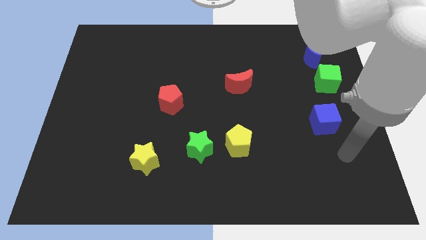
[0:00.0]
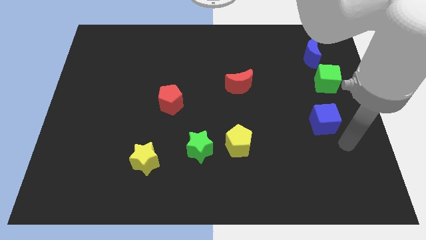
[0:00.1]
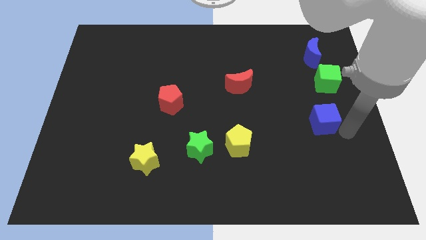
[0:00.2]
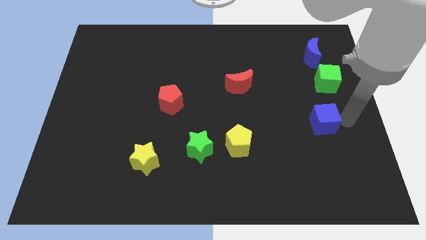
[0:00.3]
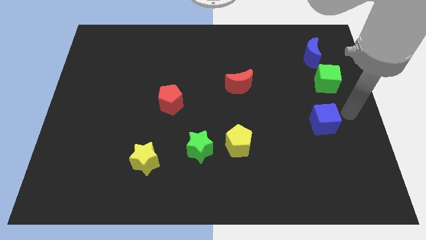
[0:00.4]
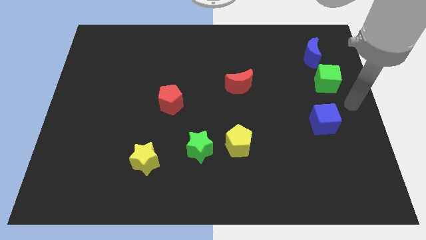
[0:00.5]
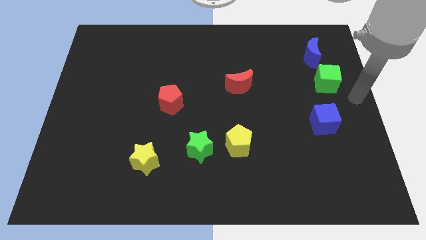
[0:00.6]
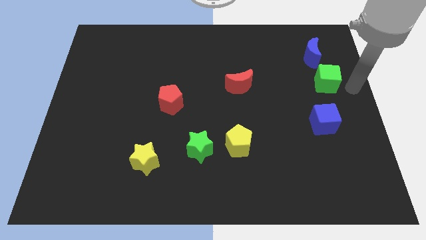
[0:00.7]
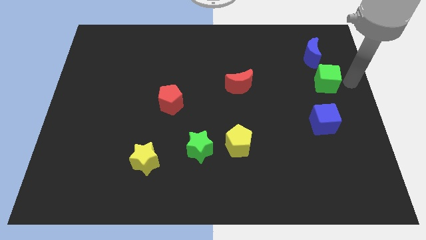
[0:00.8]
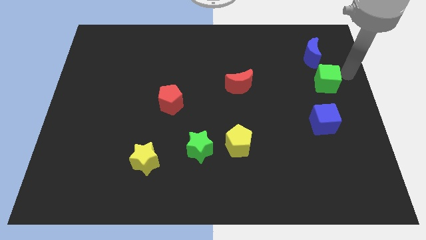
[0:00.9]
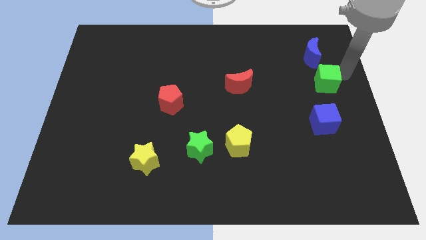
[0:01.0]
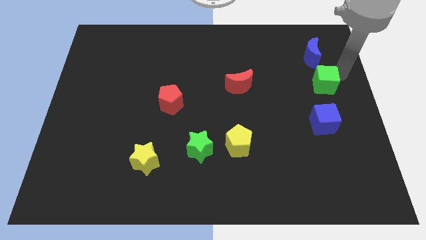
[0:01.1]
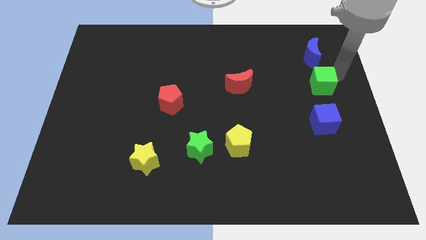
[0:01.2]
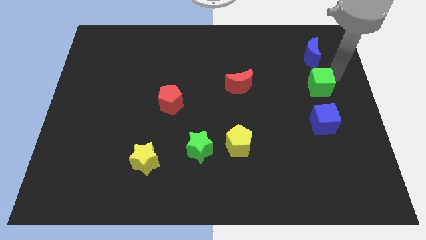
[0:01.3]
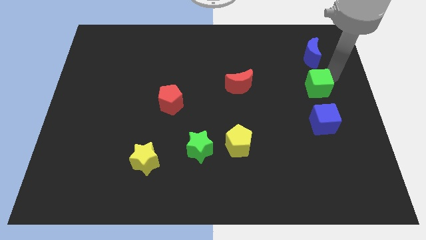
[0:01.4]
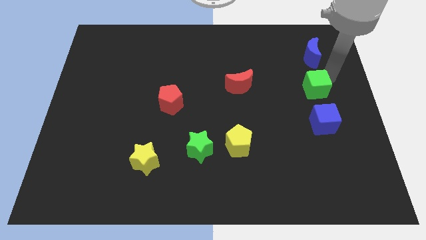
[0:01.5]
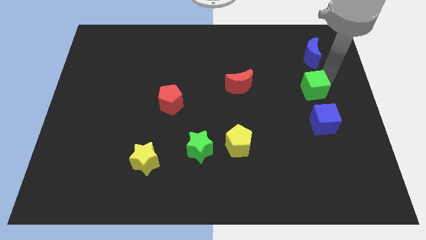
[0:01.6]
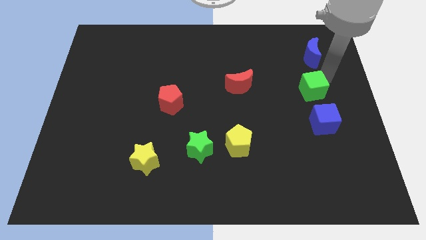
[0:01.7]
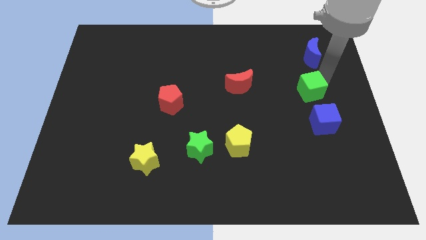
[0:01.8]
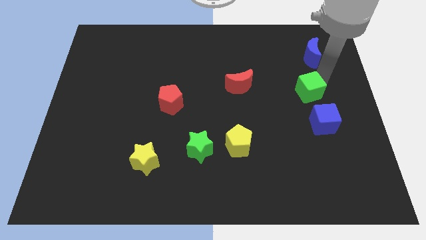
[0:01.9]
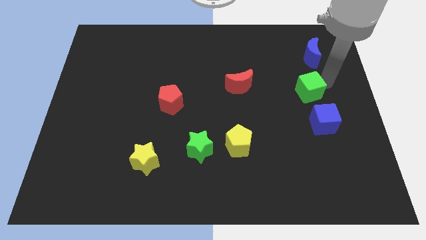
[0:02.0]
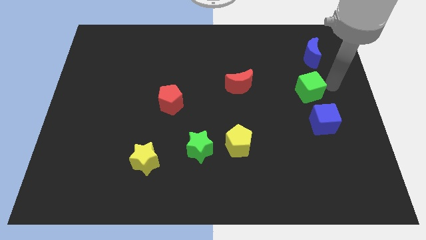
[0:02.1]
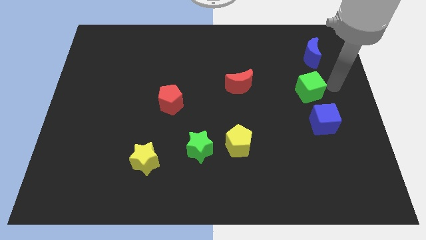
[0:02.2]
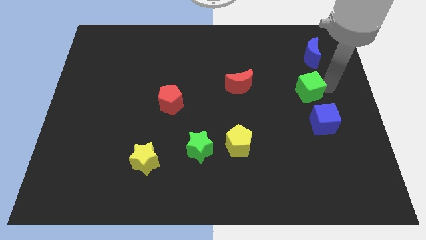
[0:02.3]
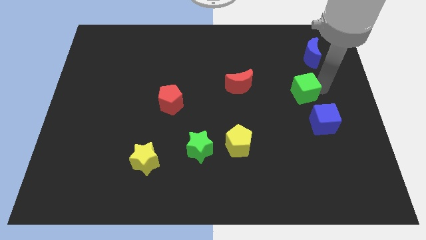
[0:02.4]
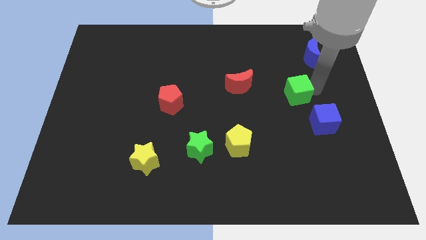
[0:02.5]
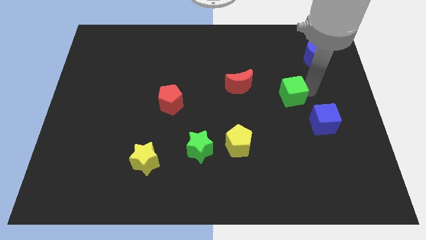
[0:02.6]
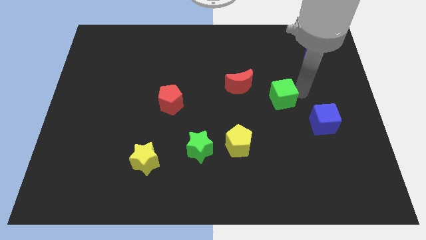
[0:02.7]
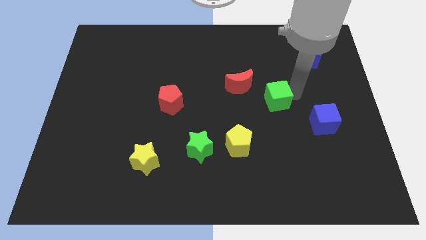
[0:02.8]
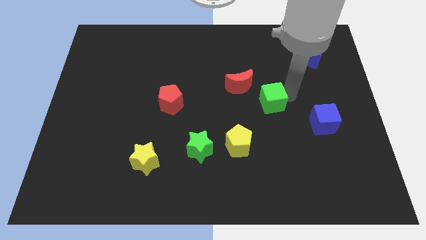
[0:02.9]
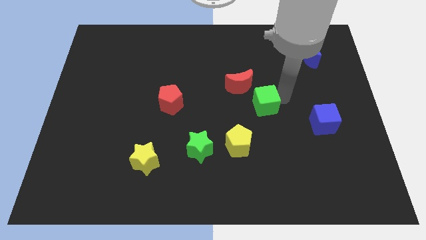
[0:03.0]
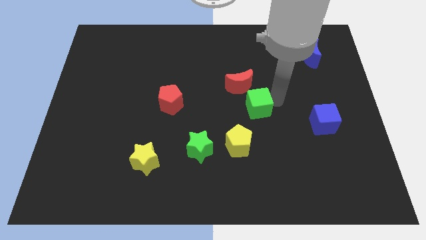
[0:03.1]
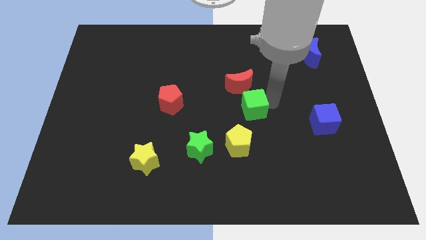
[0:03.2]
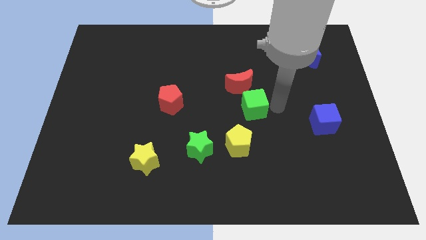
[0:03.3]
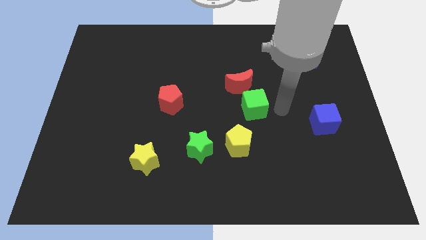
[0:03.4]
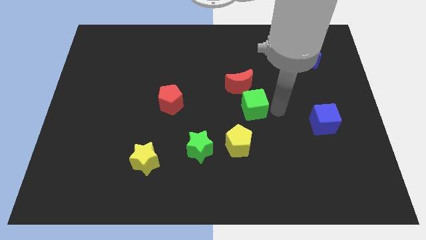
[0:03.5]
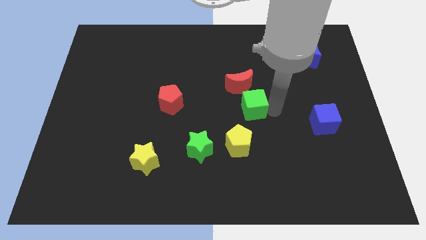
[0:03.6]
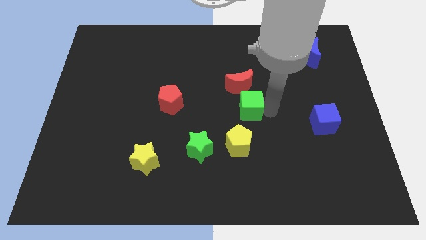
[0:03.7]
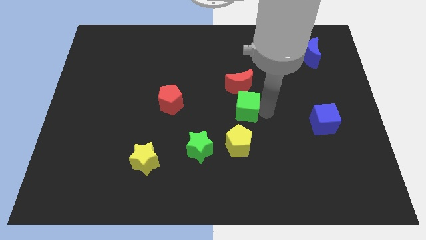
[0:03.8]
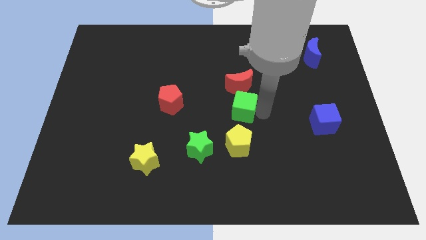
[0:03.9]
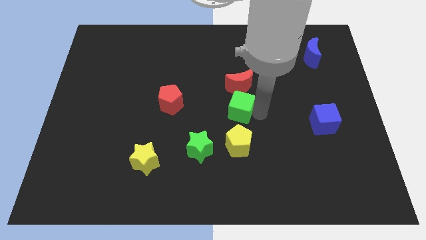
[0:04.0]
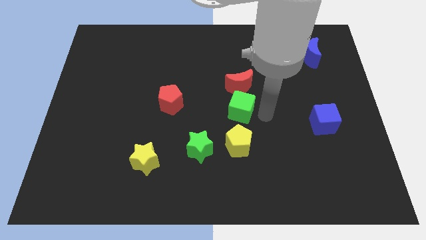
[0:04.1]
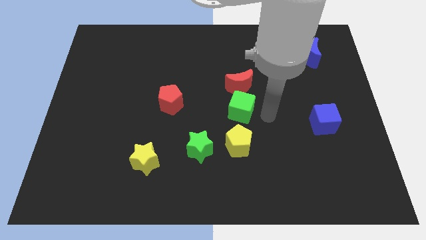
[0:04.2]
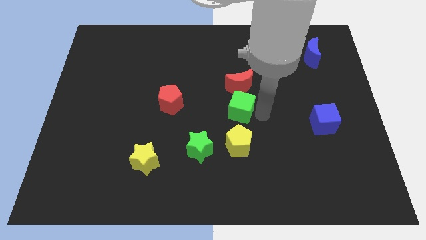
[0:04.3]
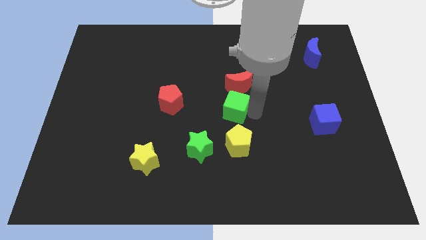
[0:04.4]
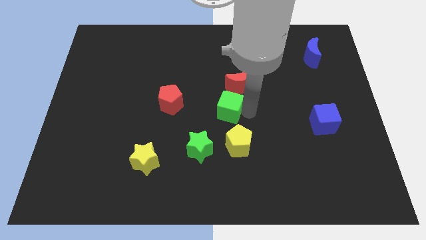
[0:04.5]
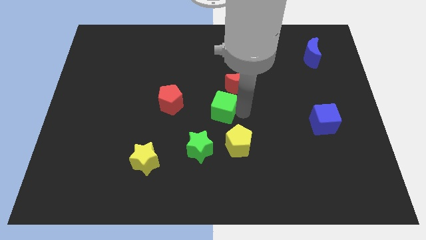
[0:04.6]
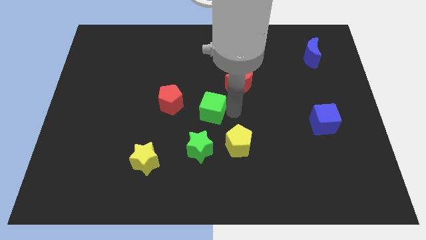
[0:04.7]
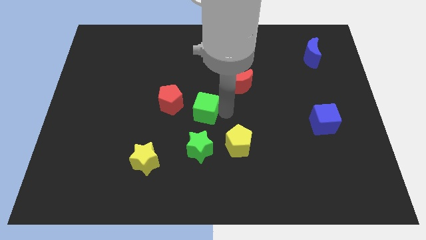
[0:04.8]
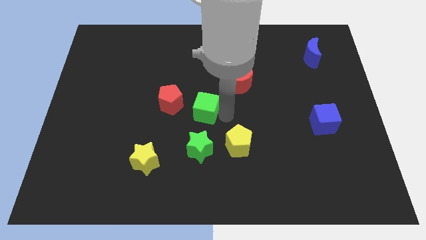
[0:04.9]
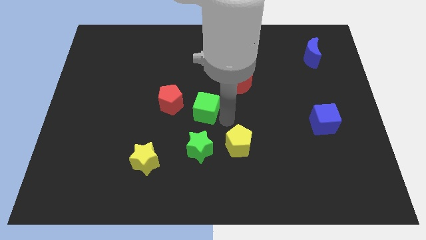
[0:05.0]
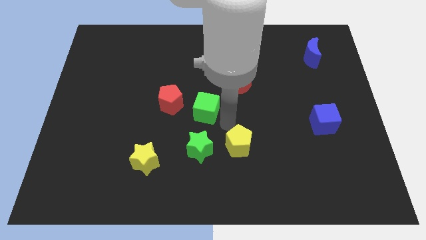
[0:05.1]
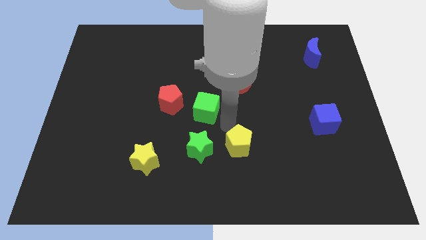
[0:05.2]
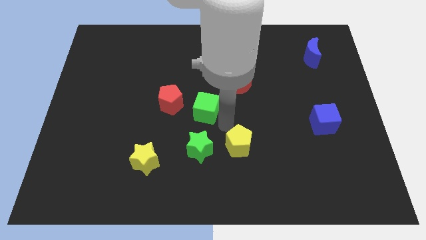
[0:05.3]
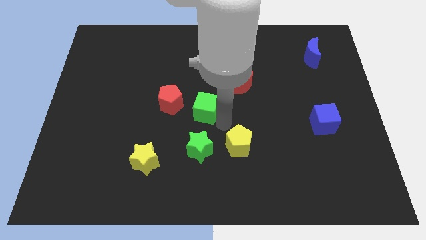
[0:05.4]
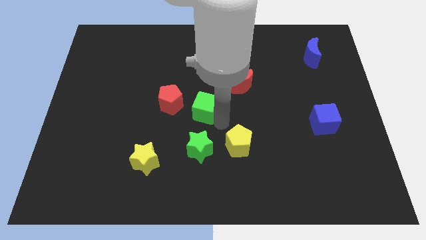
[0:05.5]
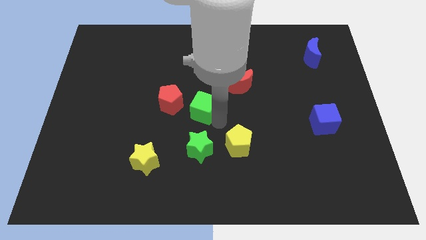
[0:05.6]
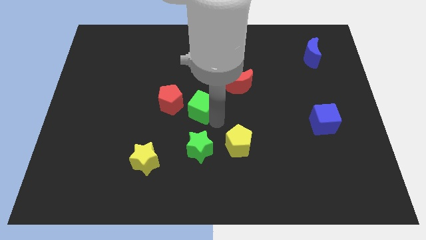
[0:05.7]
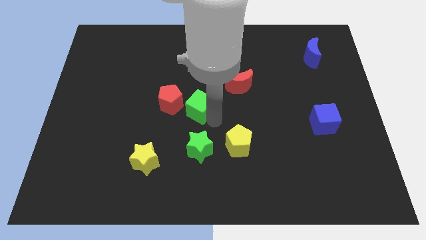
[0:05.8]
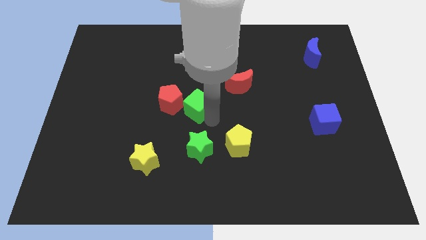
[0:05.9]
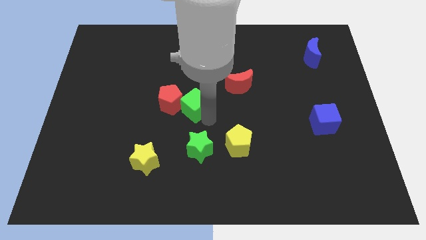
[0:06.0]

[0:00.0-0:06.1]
put the green cube close to the red pentagon
